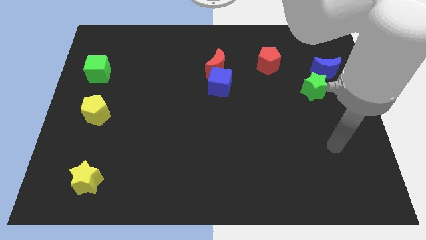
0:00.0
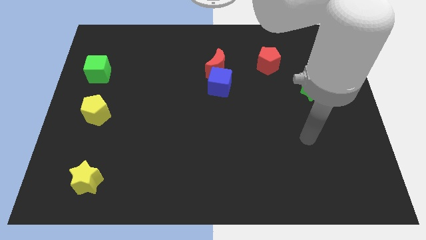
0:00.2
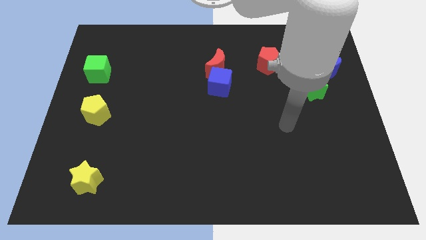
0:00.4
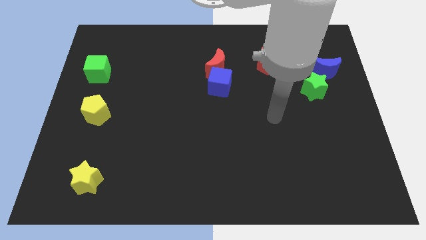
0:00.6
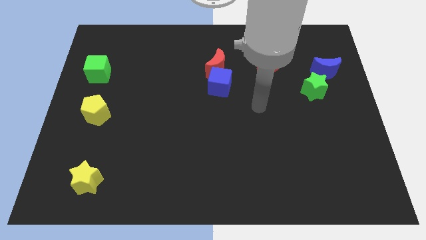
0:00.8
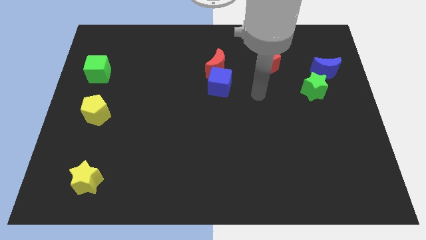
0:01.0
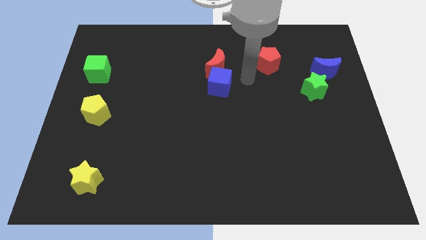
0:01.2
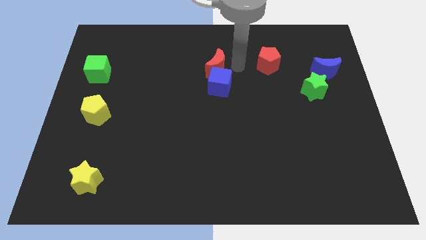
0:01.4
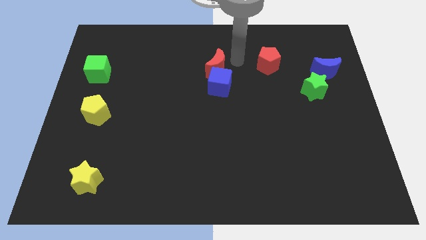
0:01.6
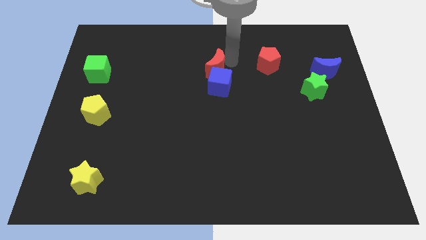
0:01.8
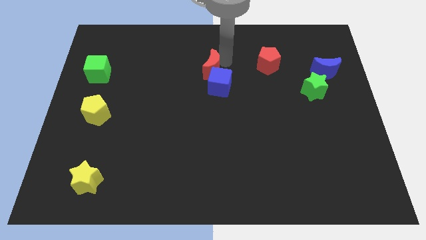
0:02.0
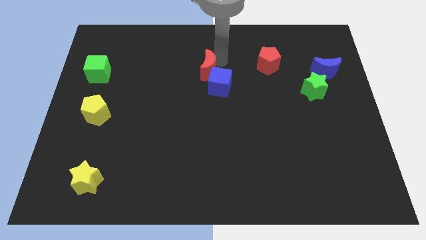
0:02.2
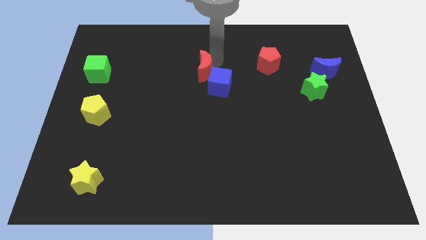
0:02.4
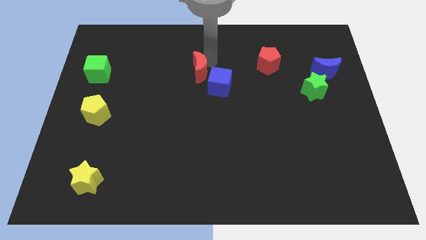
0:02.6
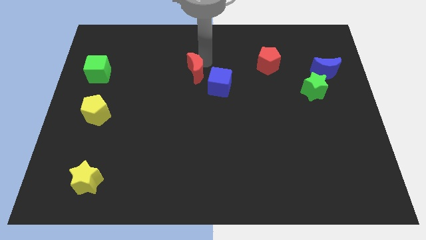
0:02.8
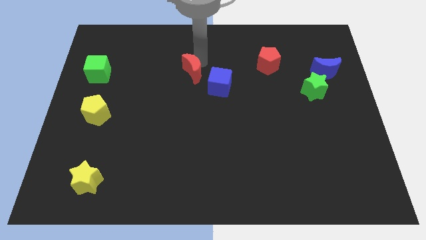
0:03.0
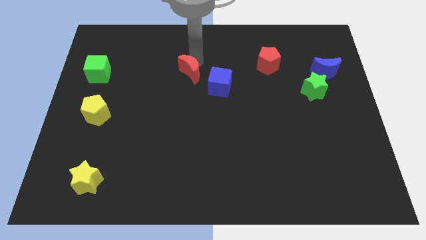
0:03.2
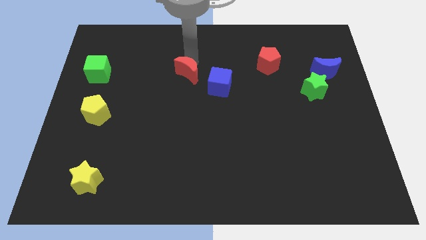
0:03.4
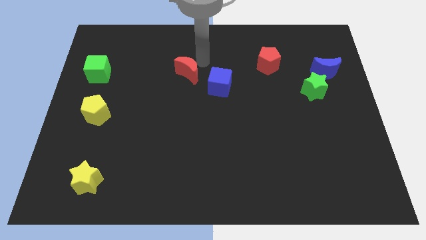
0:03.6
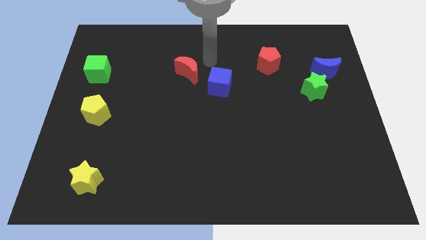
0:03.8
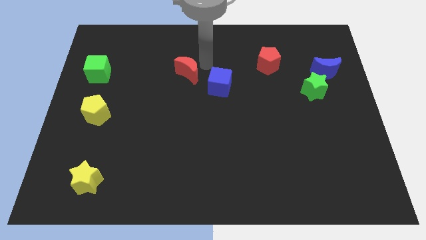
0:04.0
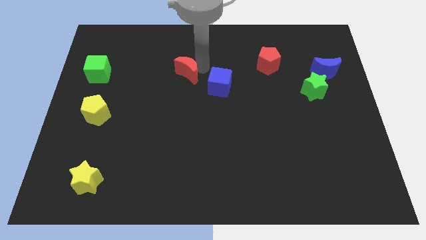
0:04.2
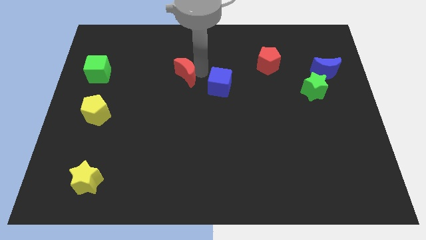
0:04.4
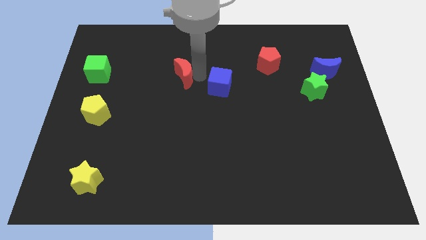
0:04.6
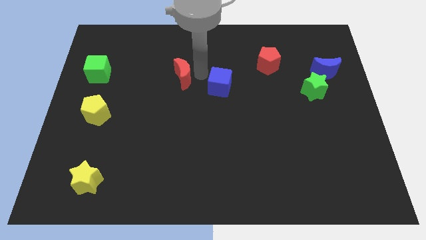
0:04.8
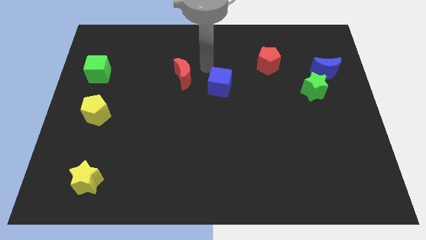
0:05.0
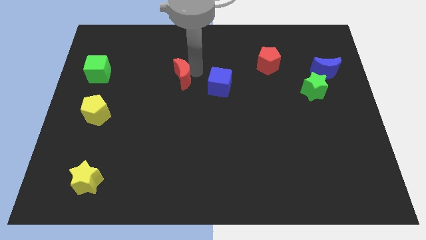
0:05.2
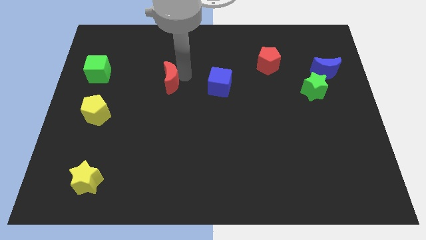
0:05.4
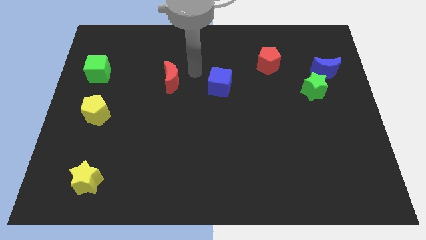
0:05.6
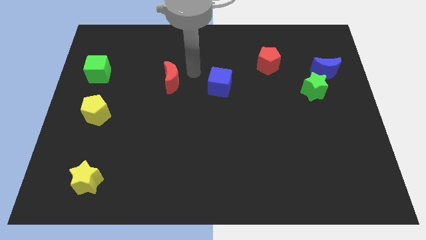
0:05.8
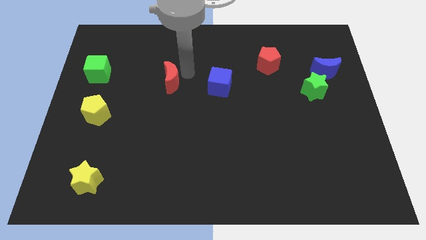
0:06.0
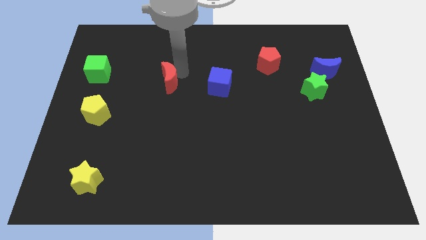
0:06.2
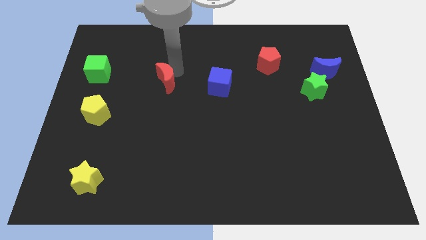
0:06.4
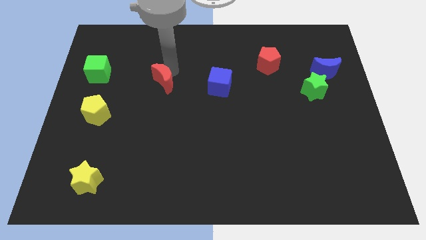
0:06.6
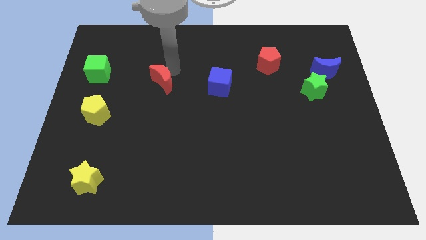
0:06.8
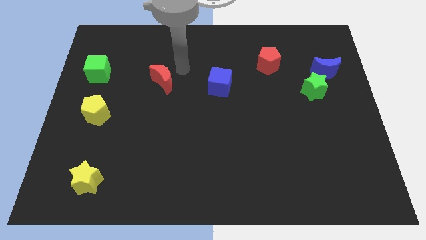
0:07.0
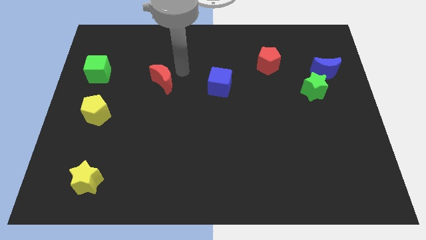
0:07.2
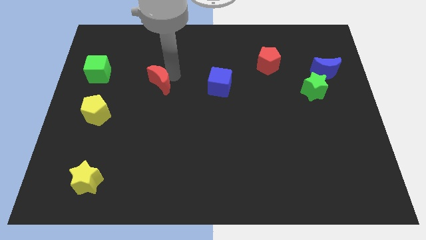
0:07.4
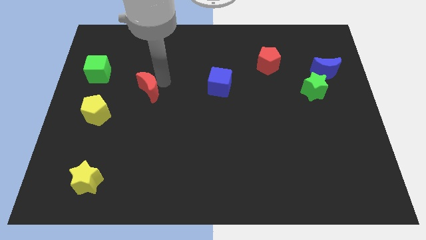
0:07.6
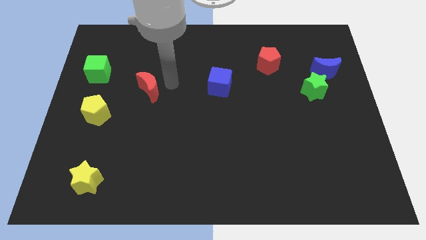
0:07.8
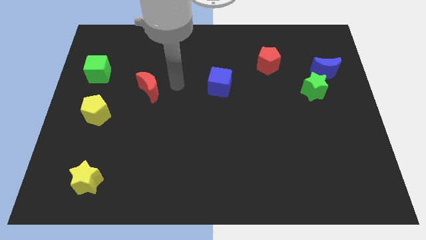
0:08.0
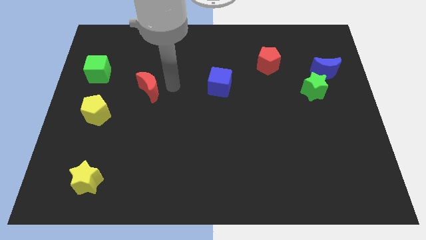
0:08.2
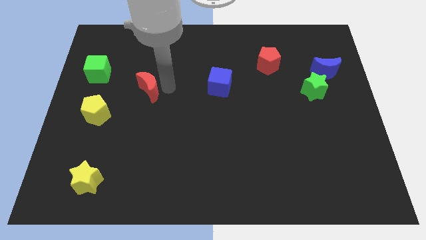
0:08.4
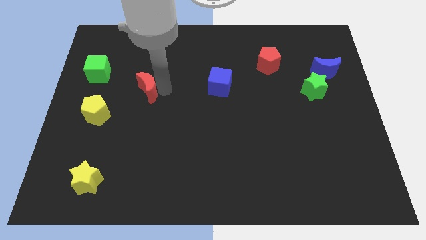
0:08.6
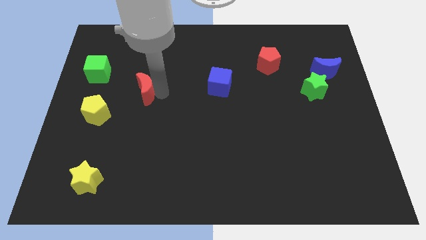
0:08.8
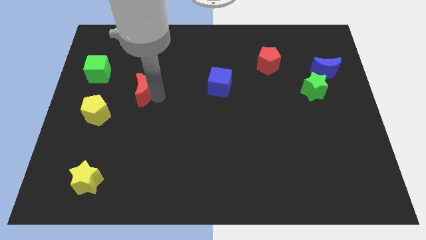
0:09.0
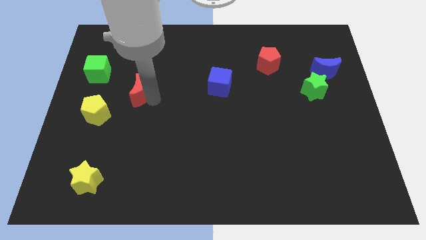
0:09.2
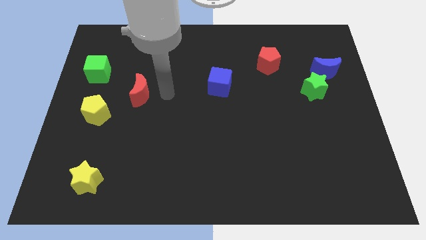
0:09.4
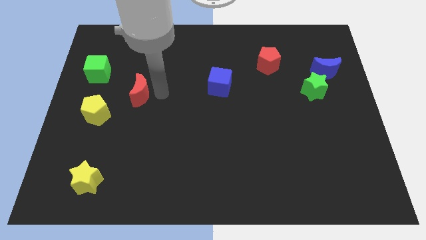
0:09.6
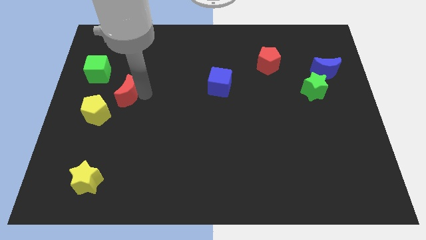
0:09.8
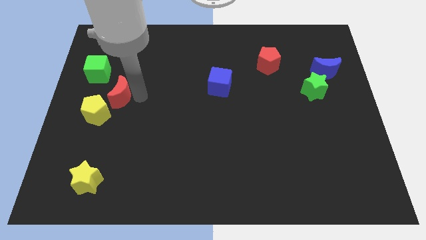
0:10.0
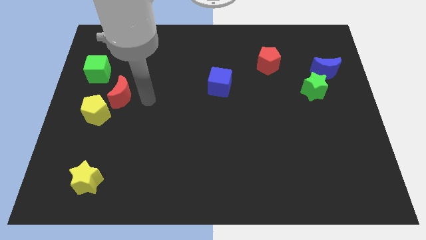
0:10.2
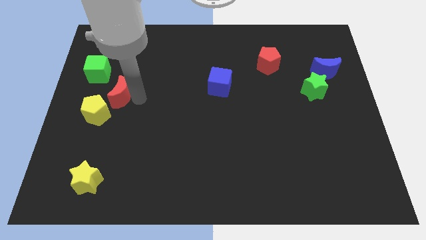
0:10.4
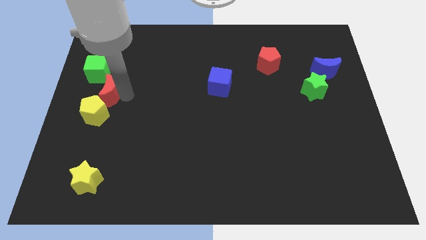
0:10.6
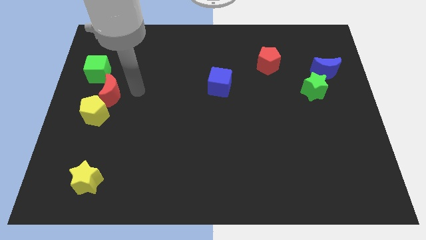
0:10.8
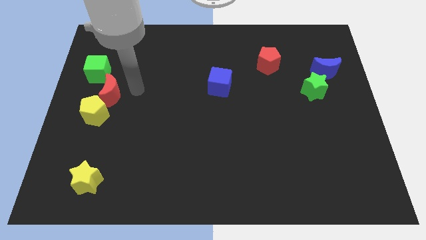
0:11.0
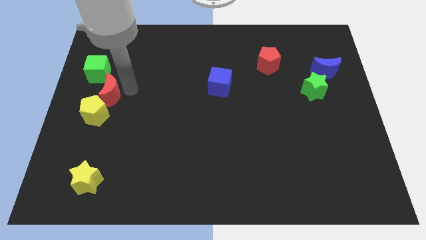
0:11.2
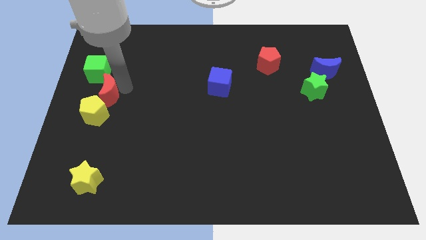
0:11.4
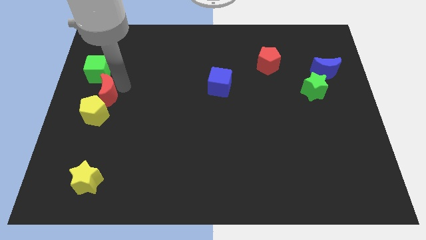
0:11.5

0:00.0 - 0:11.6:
push the red moon to the left side
